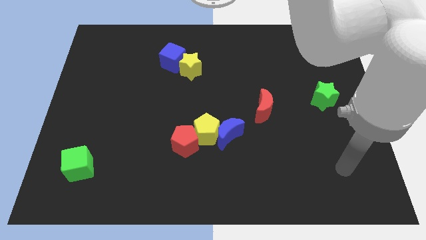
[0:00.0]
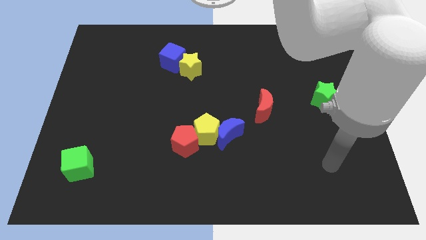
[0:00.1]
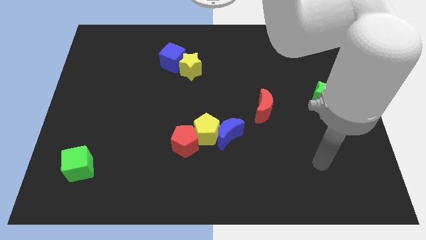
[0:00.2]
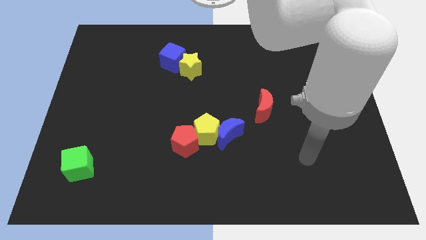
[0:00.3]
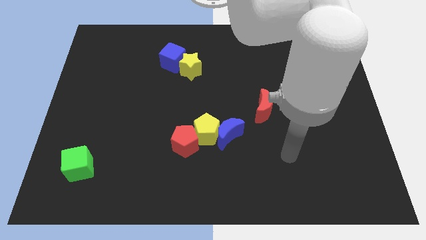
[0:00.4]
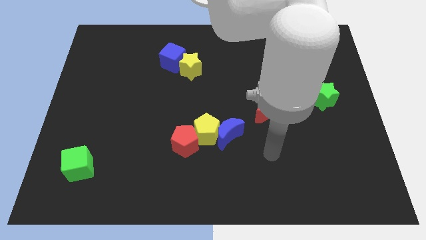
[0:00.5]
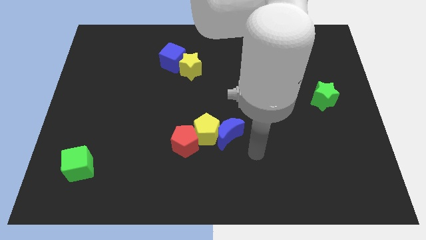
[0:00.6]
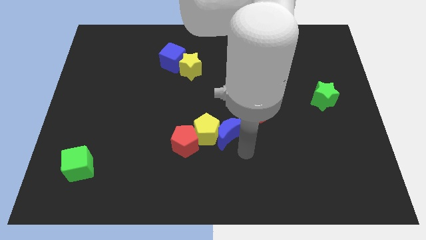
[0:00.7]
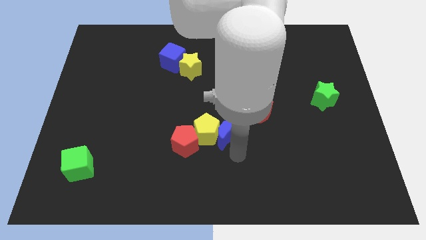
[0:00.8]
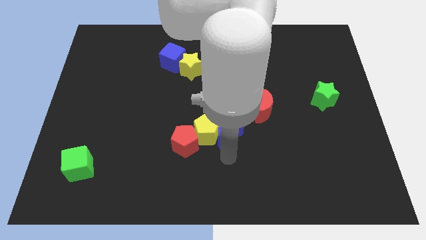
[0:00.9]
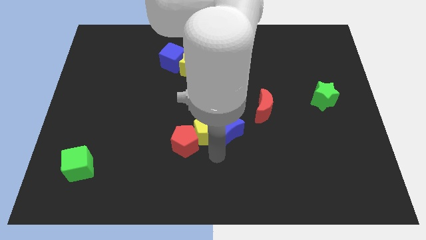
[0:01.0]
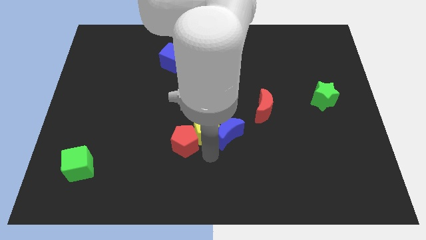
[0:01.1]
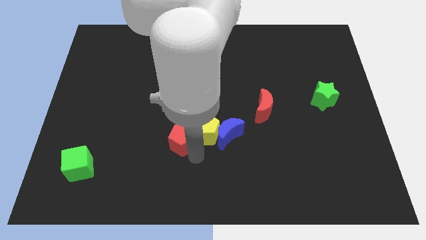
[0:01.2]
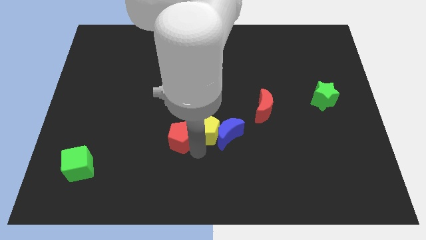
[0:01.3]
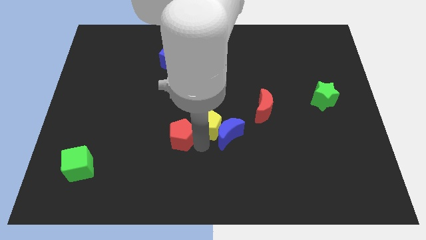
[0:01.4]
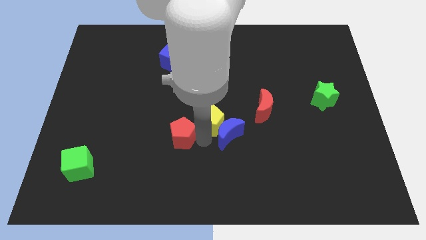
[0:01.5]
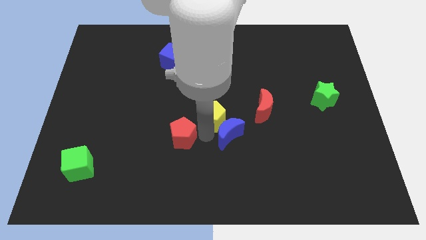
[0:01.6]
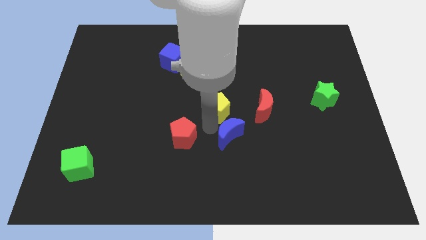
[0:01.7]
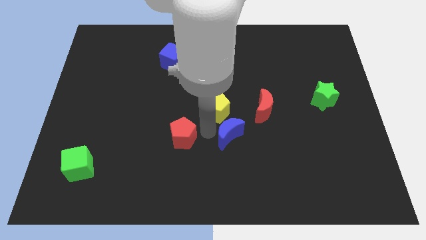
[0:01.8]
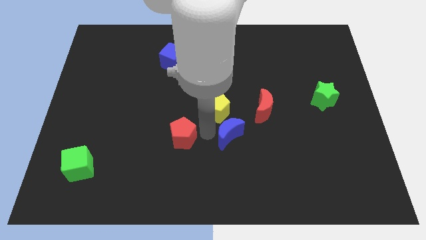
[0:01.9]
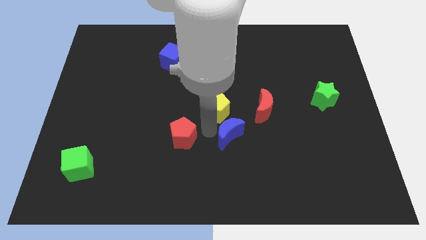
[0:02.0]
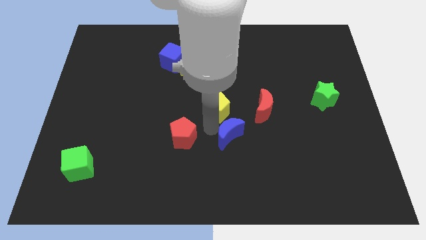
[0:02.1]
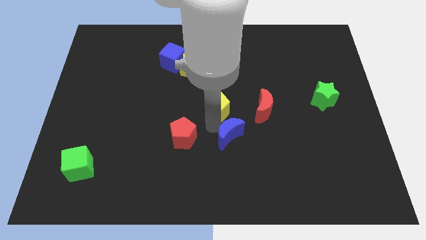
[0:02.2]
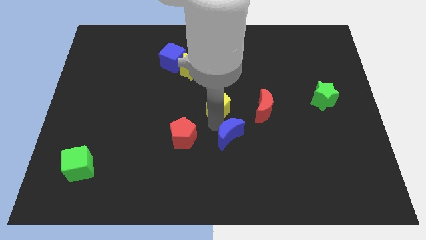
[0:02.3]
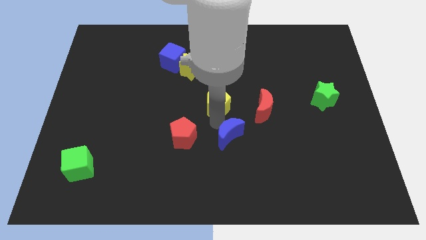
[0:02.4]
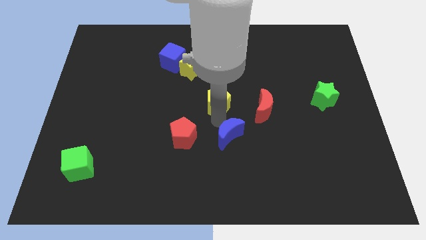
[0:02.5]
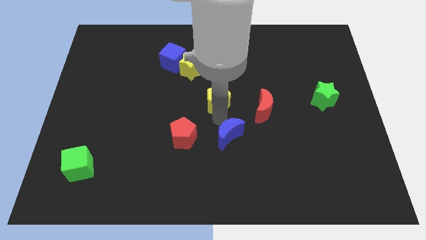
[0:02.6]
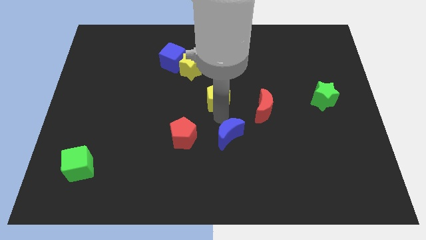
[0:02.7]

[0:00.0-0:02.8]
move the yellow pentagon away from the blue moon and red pentagon

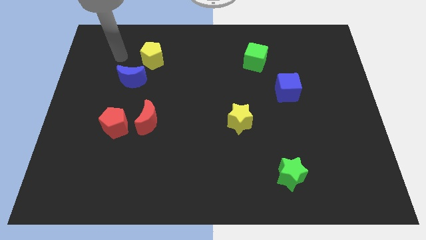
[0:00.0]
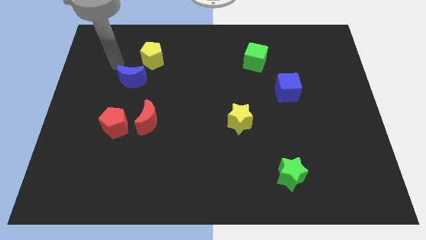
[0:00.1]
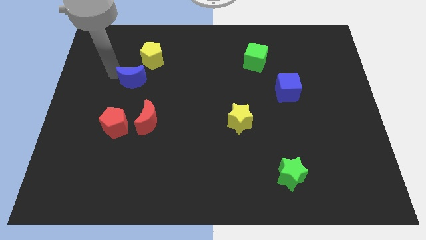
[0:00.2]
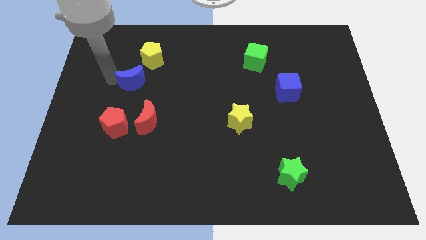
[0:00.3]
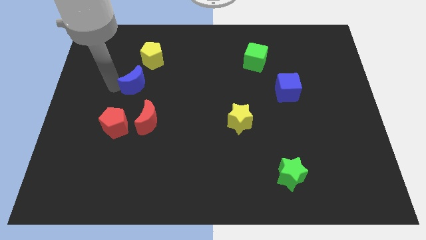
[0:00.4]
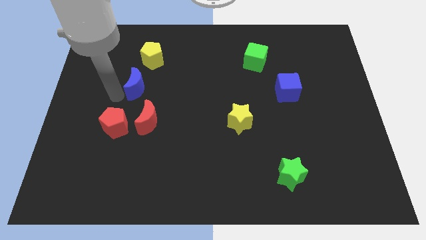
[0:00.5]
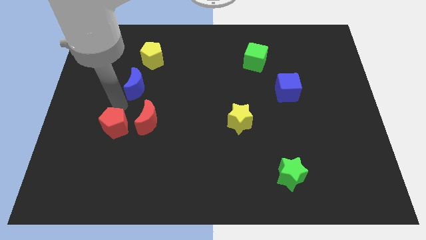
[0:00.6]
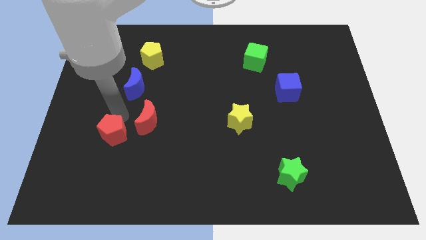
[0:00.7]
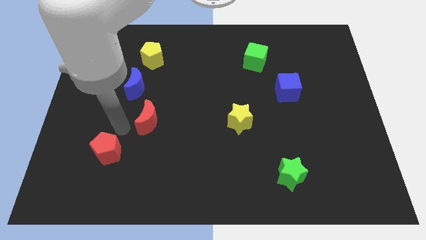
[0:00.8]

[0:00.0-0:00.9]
separate the red moon from the red pentagon

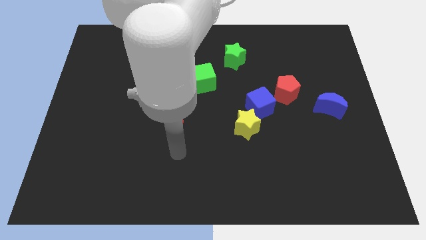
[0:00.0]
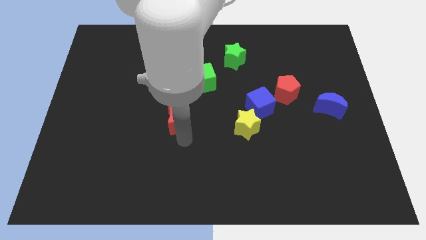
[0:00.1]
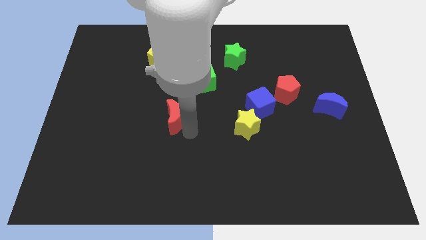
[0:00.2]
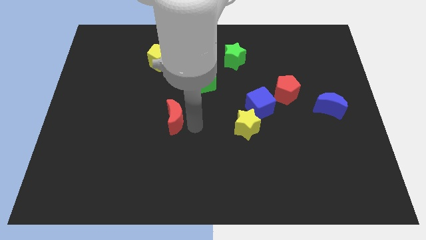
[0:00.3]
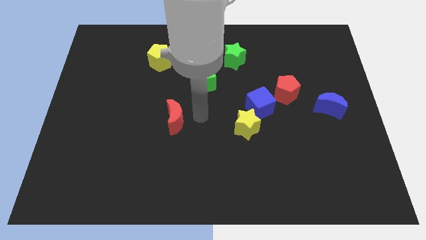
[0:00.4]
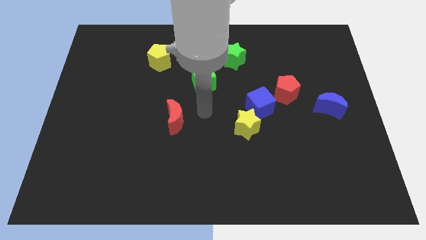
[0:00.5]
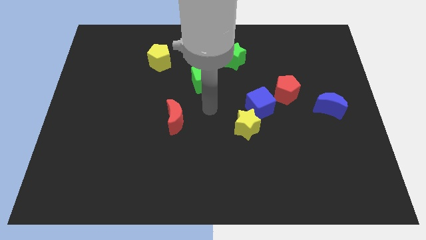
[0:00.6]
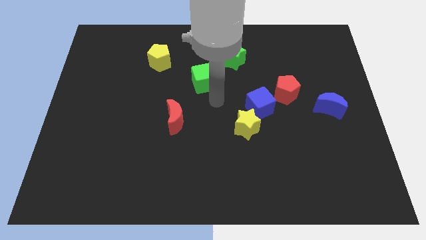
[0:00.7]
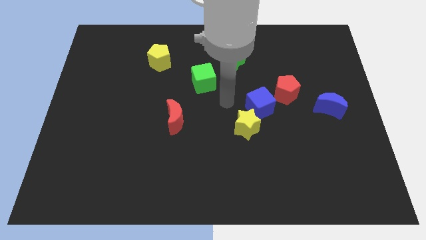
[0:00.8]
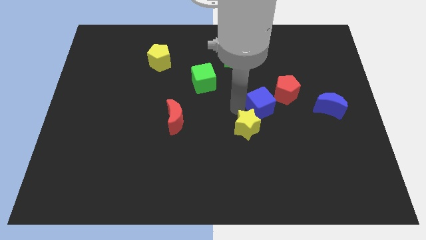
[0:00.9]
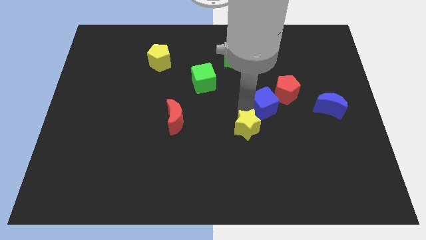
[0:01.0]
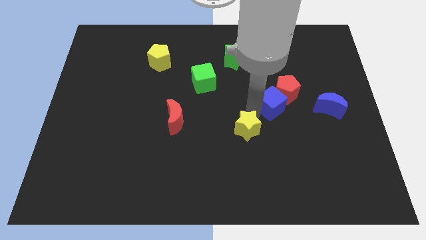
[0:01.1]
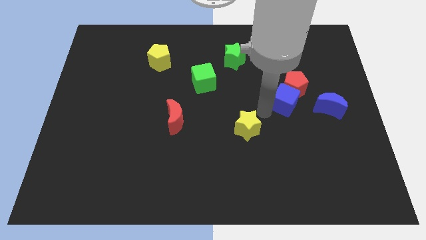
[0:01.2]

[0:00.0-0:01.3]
separate the yellow star from the blue cube

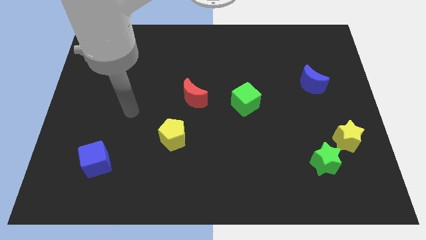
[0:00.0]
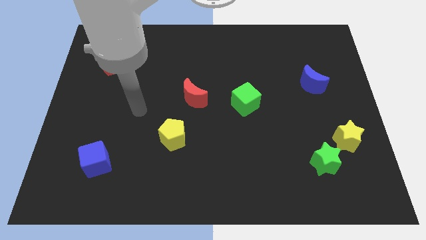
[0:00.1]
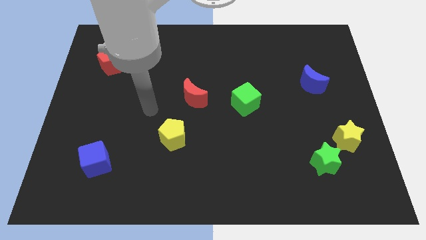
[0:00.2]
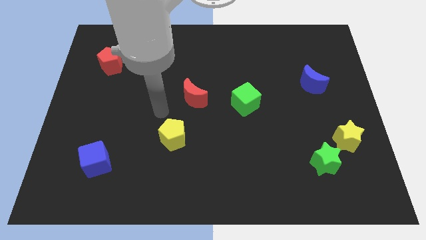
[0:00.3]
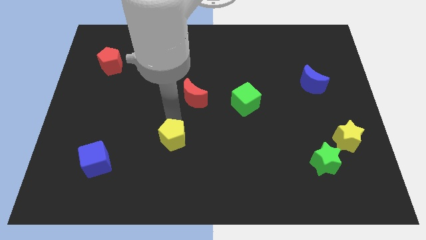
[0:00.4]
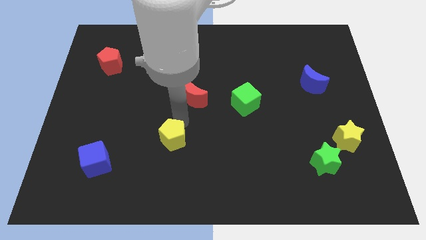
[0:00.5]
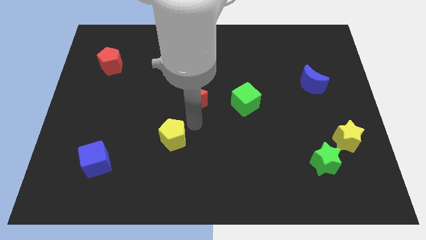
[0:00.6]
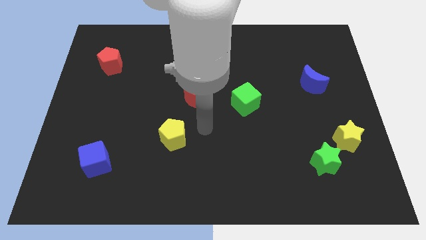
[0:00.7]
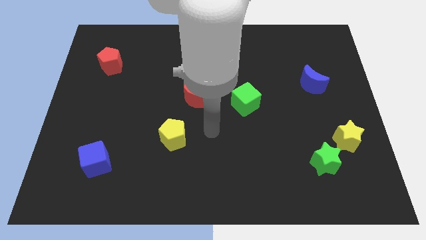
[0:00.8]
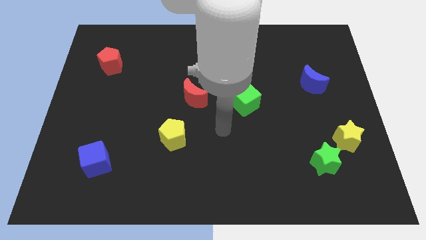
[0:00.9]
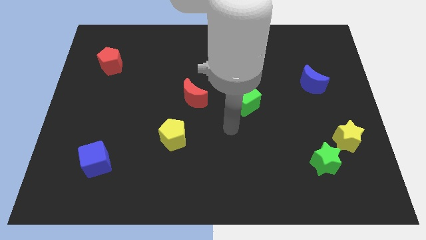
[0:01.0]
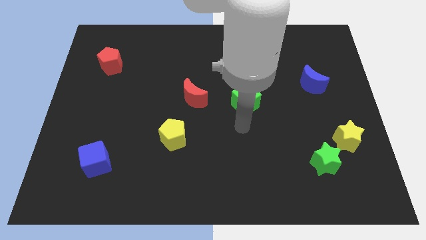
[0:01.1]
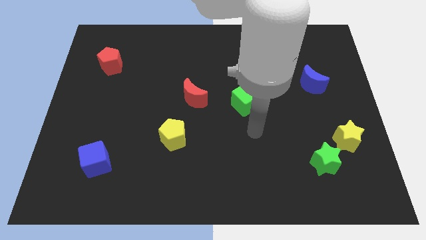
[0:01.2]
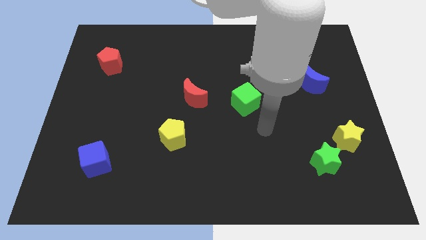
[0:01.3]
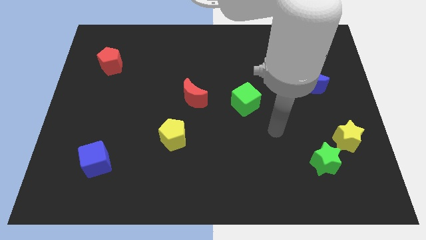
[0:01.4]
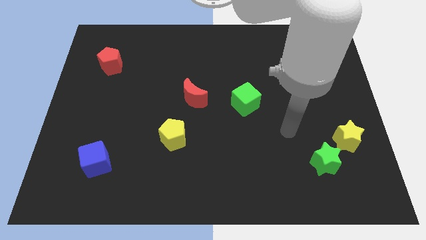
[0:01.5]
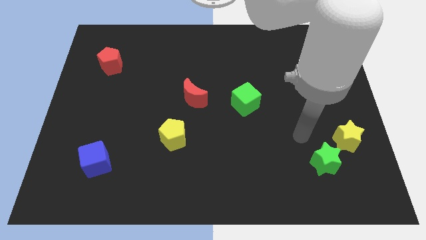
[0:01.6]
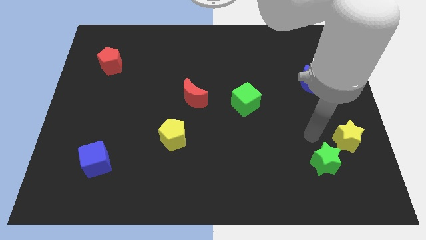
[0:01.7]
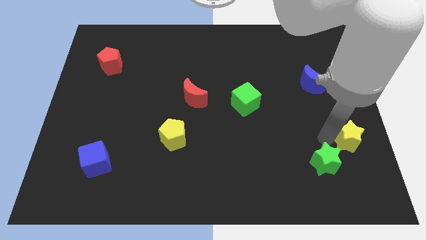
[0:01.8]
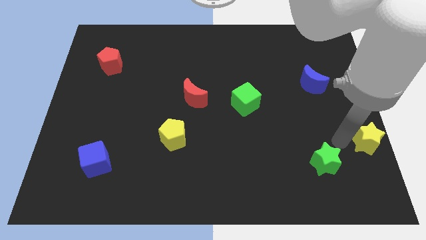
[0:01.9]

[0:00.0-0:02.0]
pull the green star apart from the yellow star

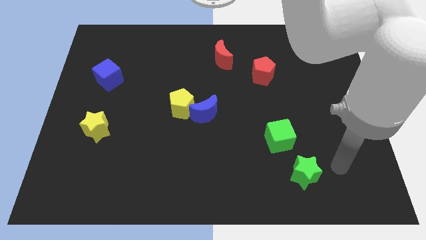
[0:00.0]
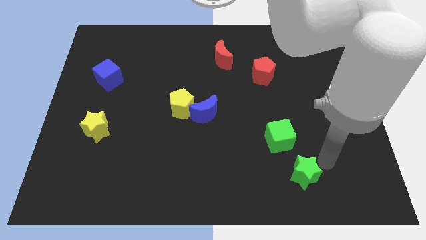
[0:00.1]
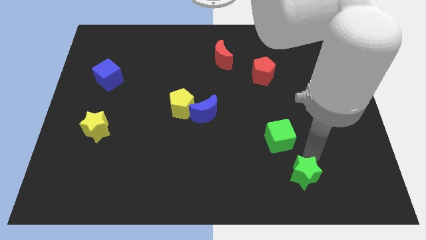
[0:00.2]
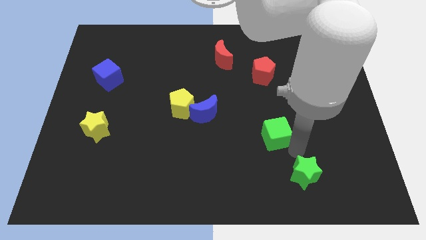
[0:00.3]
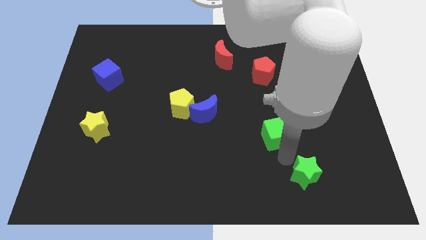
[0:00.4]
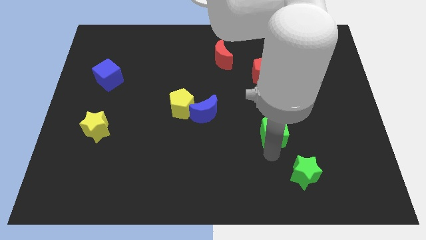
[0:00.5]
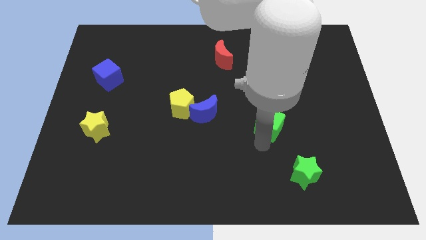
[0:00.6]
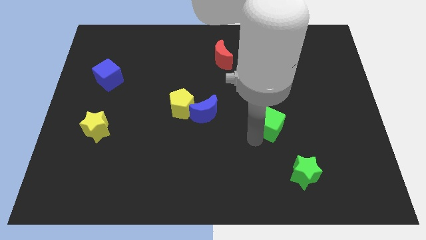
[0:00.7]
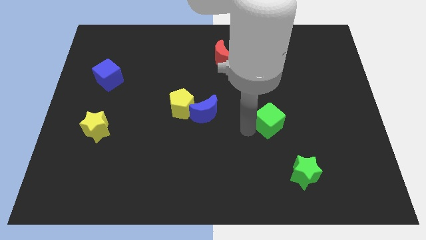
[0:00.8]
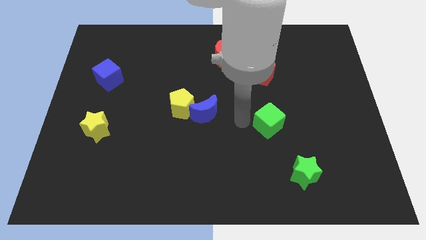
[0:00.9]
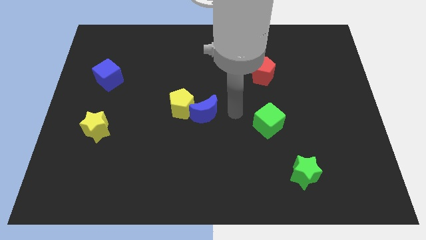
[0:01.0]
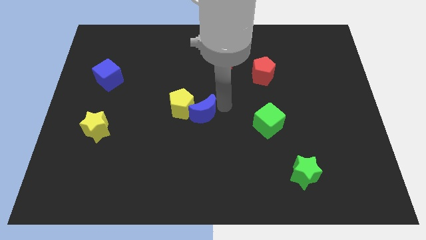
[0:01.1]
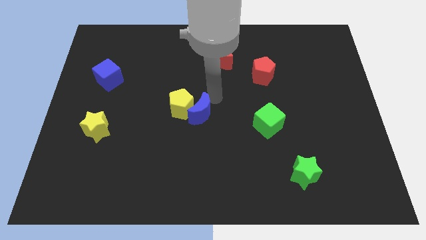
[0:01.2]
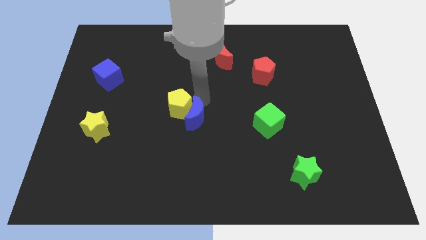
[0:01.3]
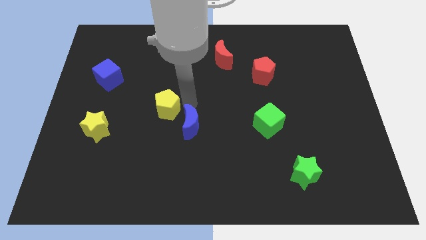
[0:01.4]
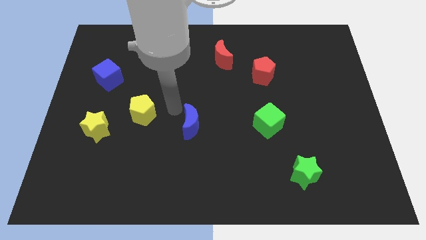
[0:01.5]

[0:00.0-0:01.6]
pull the blue moon apart from the yellow pentagon

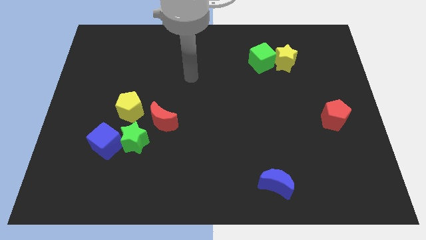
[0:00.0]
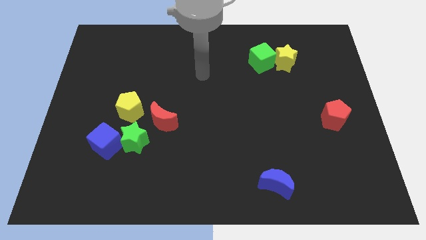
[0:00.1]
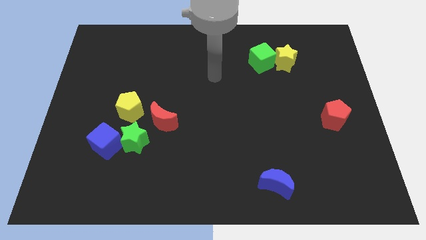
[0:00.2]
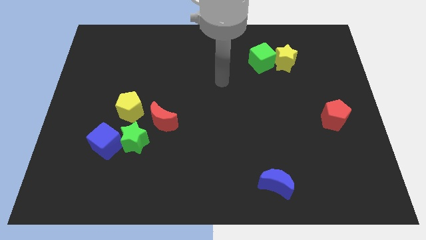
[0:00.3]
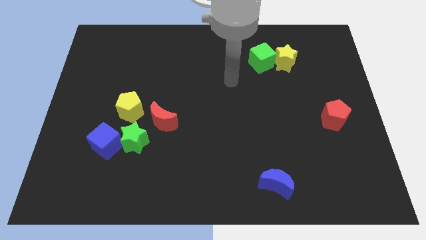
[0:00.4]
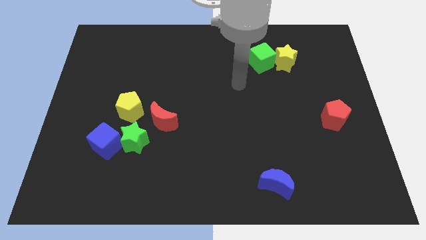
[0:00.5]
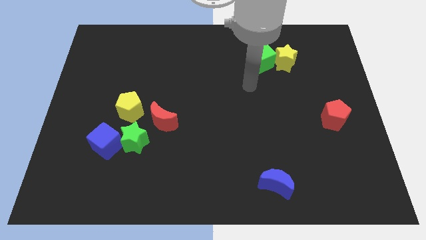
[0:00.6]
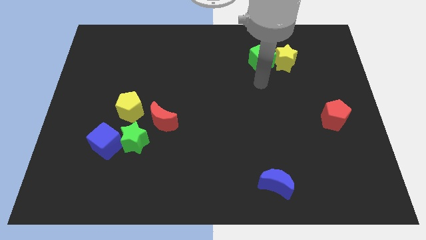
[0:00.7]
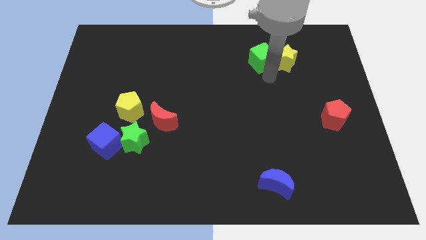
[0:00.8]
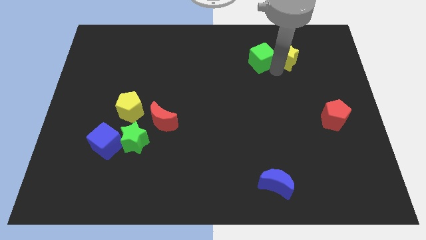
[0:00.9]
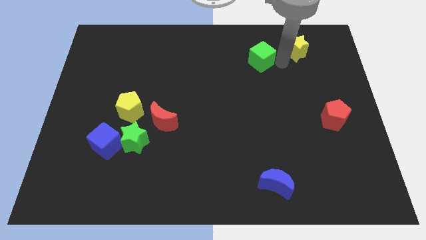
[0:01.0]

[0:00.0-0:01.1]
move the green cube away from the yellow star
